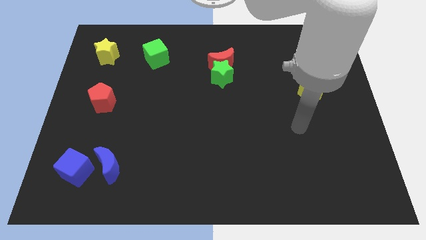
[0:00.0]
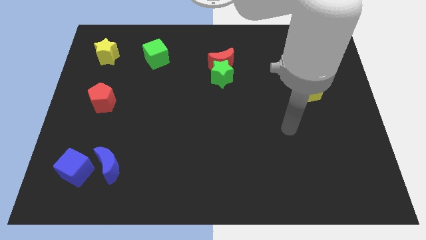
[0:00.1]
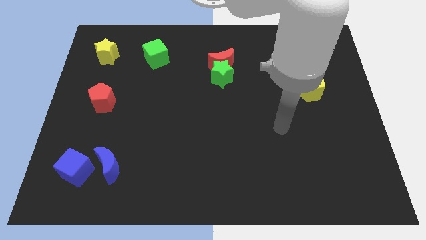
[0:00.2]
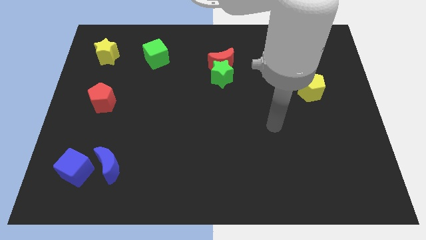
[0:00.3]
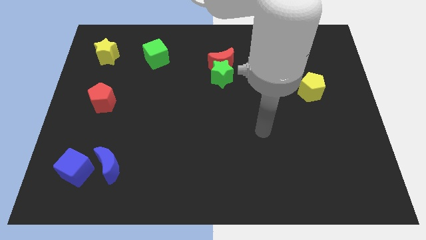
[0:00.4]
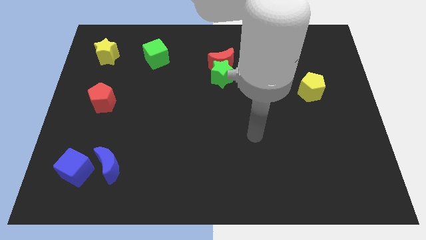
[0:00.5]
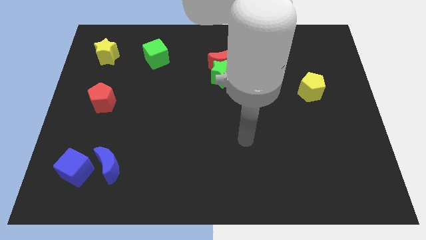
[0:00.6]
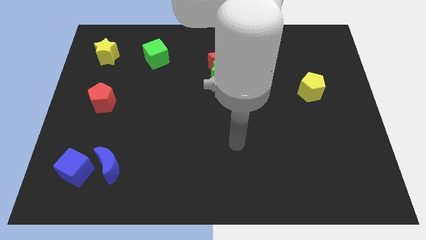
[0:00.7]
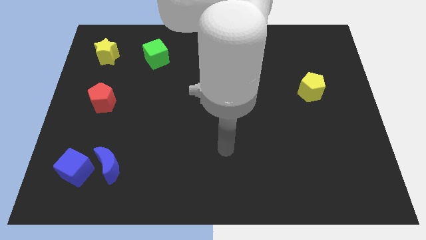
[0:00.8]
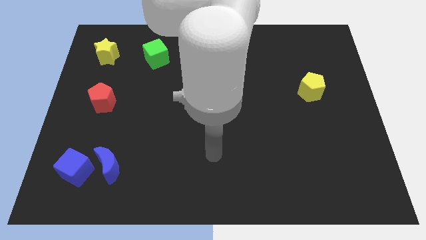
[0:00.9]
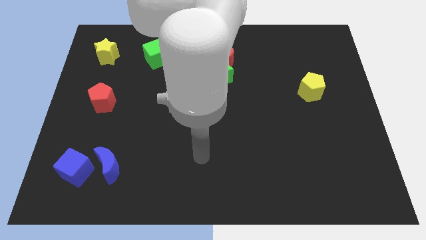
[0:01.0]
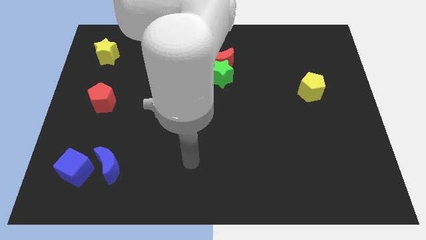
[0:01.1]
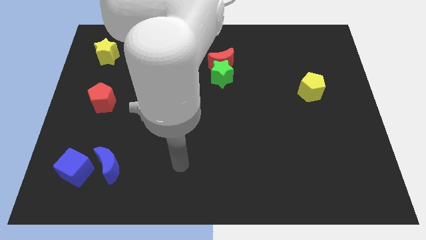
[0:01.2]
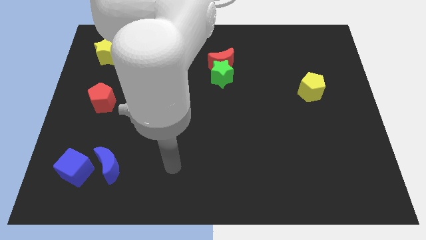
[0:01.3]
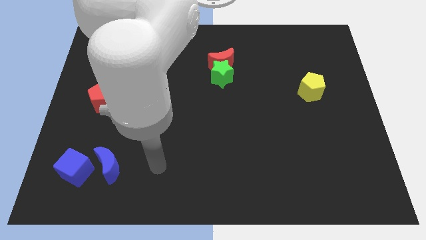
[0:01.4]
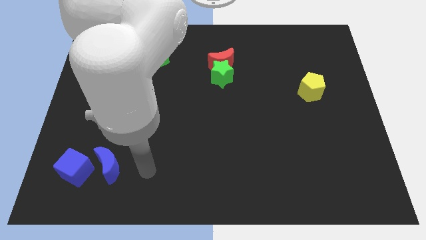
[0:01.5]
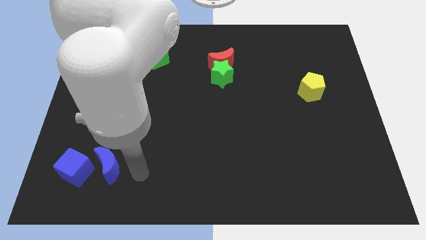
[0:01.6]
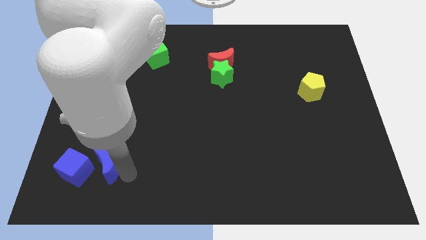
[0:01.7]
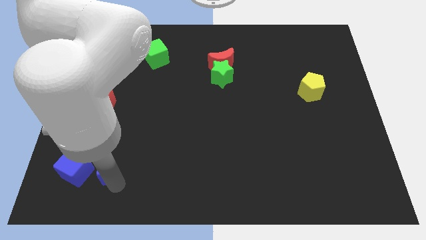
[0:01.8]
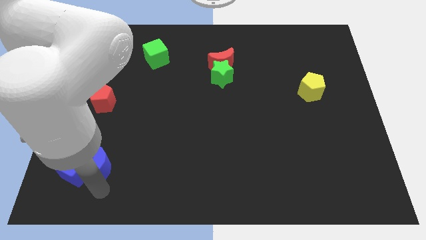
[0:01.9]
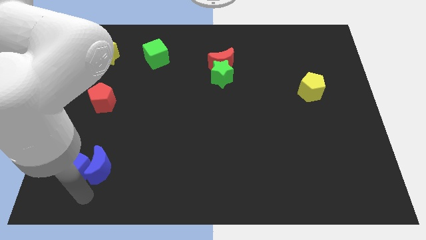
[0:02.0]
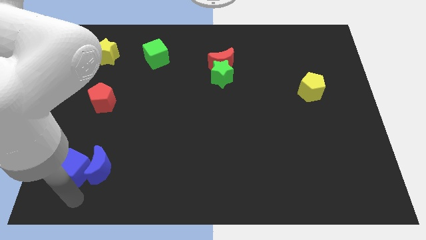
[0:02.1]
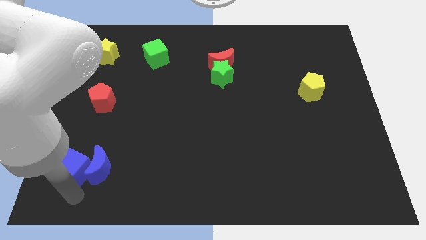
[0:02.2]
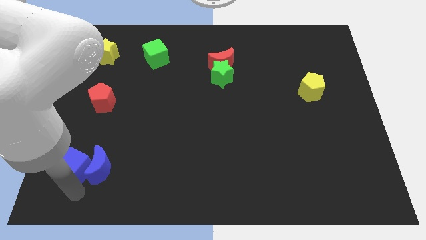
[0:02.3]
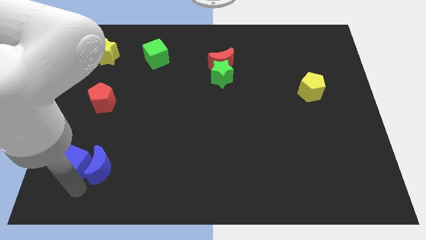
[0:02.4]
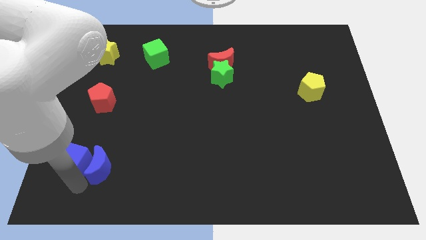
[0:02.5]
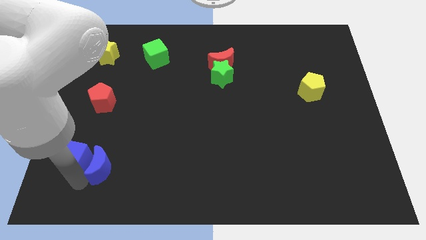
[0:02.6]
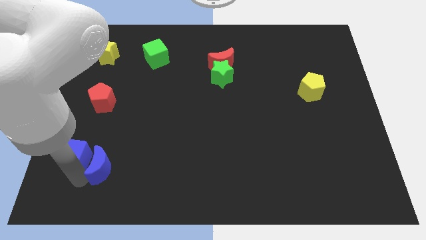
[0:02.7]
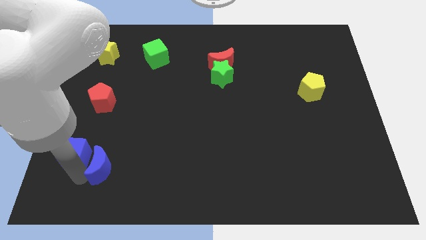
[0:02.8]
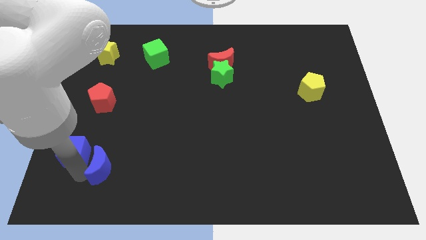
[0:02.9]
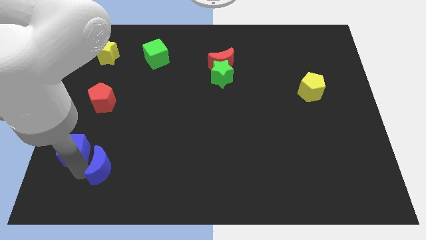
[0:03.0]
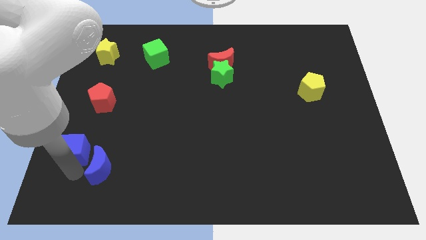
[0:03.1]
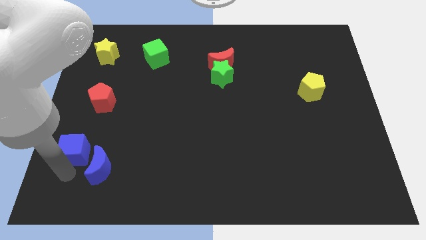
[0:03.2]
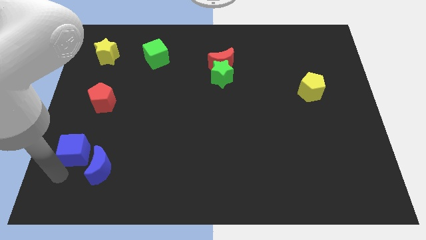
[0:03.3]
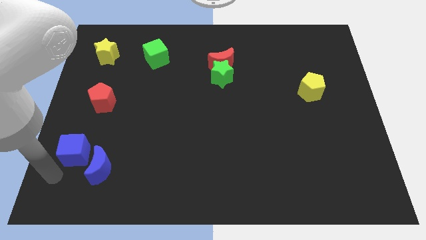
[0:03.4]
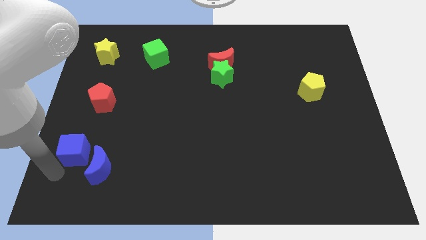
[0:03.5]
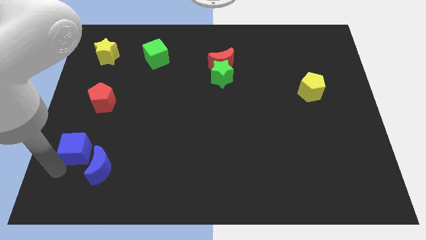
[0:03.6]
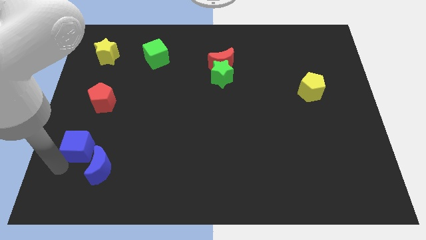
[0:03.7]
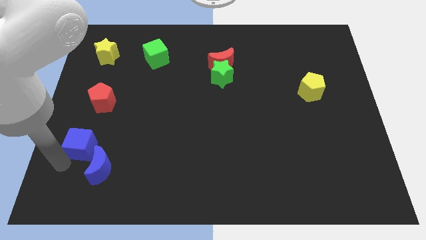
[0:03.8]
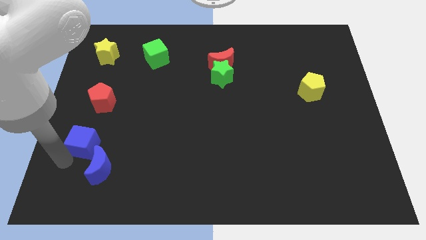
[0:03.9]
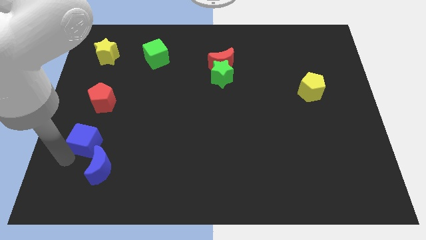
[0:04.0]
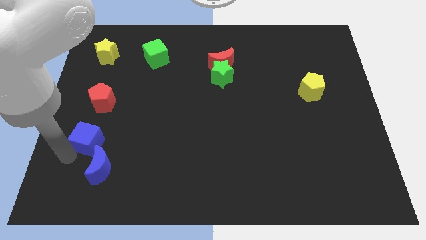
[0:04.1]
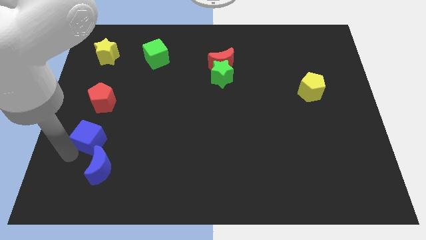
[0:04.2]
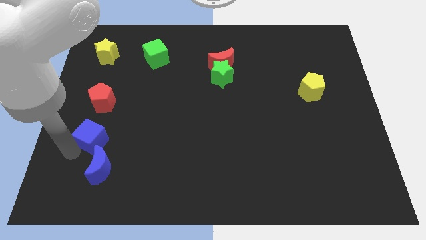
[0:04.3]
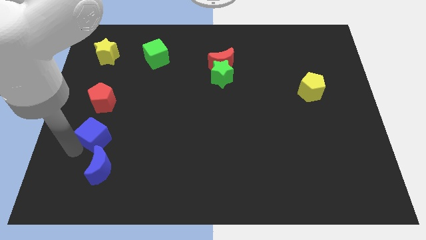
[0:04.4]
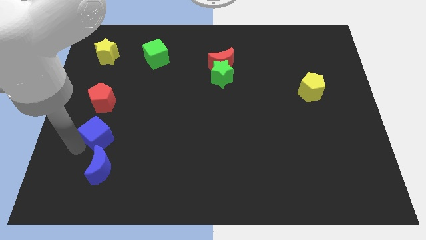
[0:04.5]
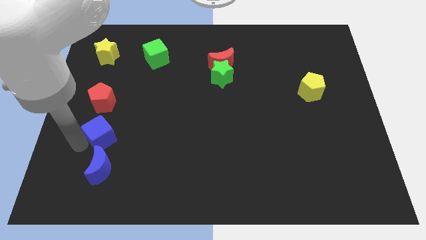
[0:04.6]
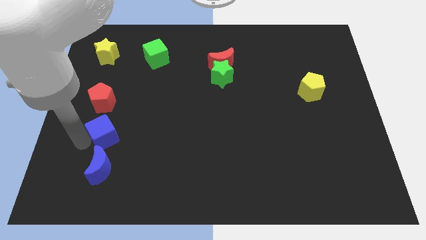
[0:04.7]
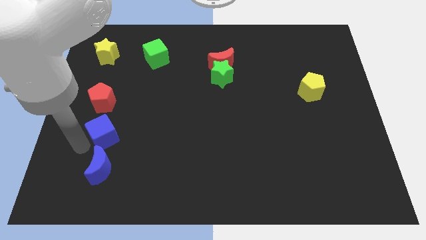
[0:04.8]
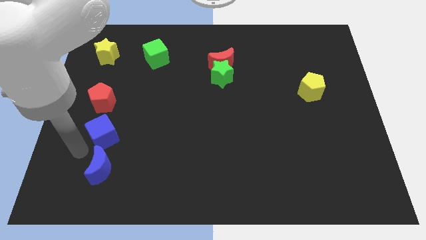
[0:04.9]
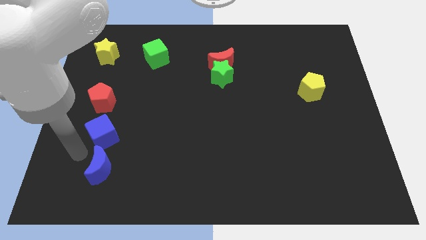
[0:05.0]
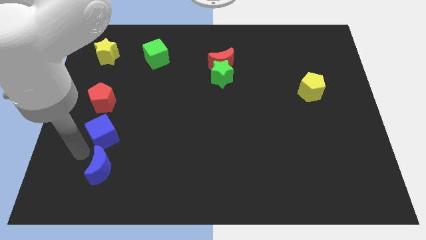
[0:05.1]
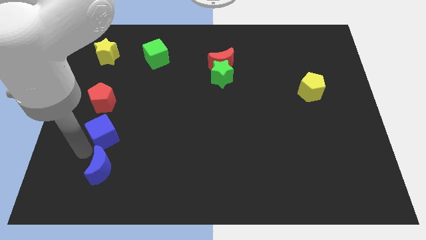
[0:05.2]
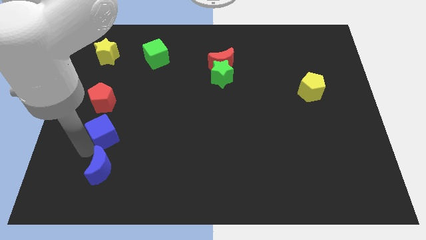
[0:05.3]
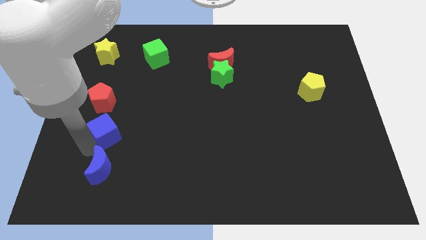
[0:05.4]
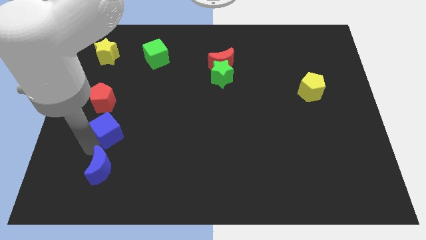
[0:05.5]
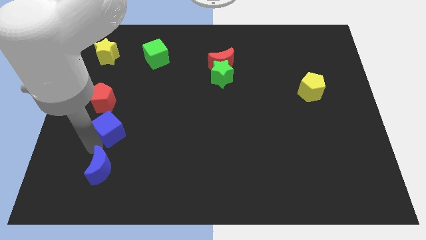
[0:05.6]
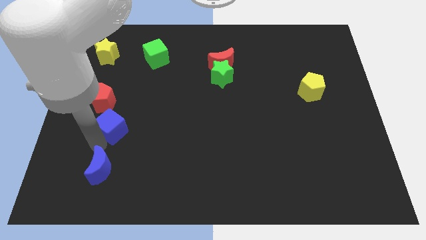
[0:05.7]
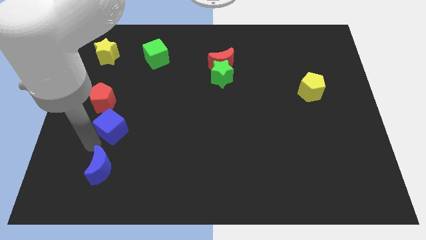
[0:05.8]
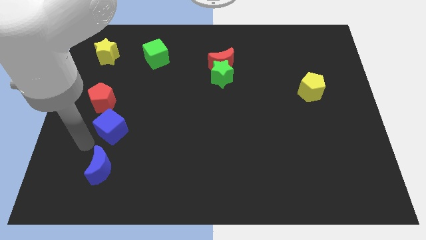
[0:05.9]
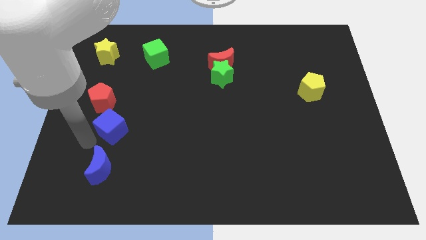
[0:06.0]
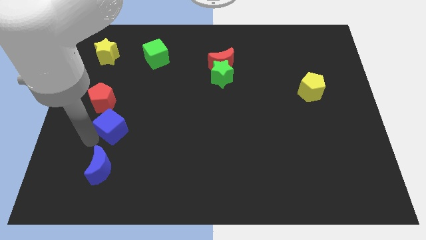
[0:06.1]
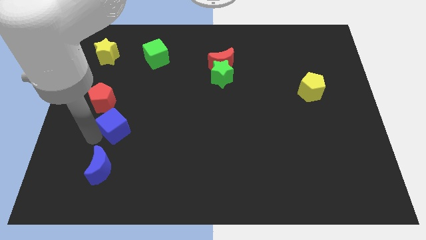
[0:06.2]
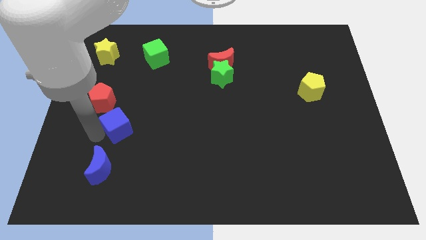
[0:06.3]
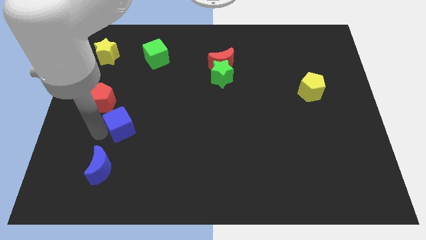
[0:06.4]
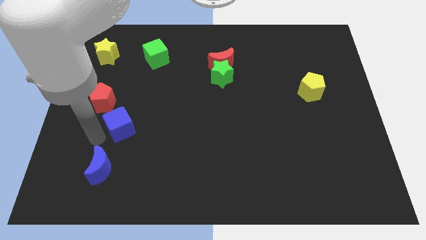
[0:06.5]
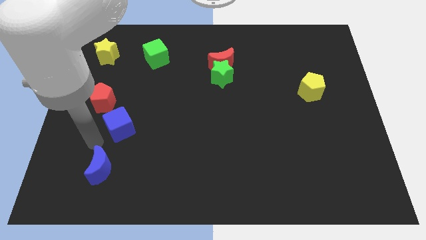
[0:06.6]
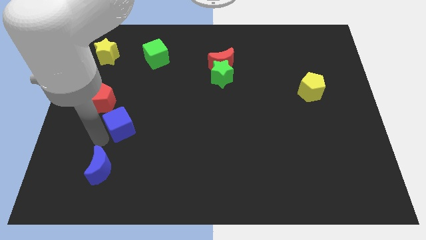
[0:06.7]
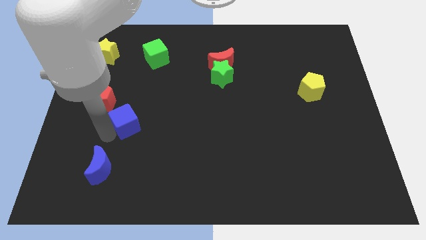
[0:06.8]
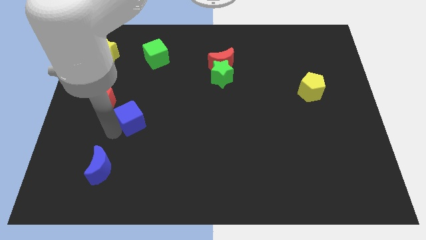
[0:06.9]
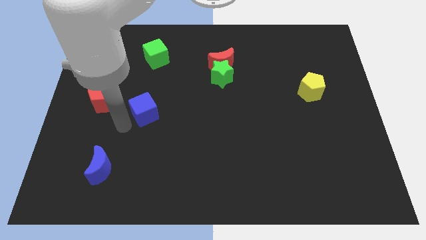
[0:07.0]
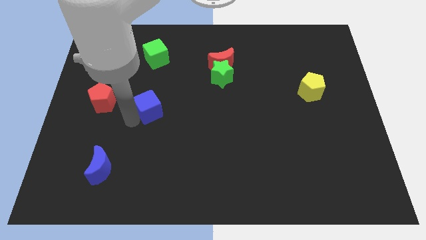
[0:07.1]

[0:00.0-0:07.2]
slide the blue cube diagonally upwards and right

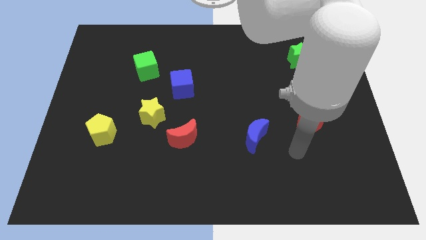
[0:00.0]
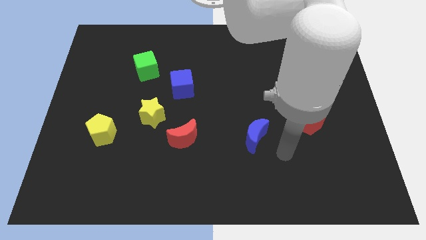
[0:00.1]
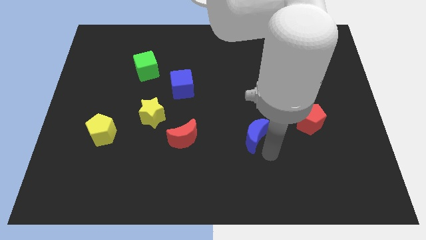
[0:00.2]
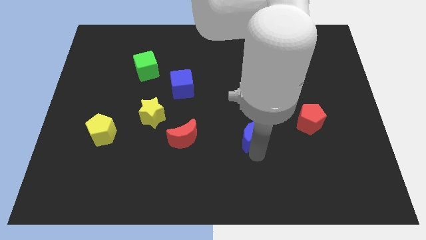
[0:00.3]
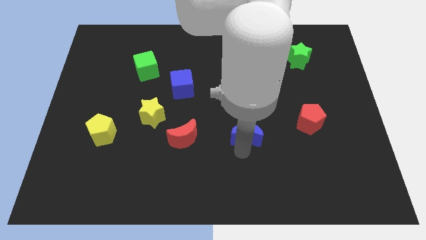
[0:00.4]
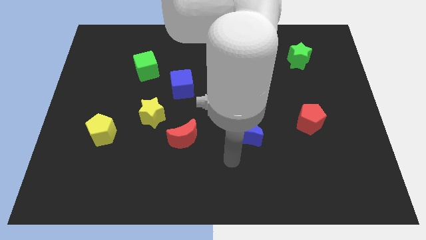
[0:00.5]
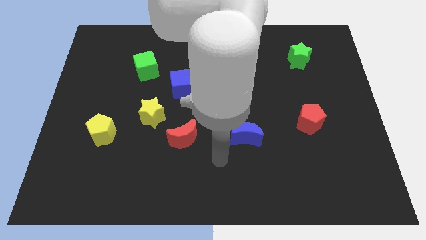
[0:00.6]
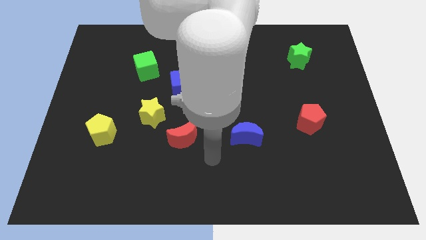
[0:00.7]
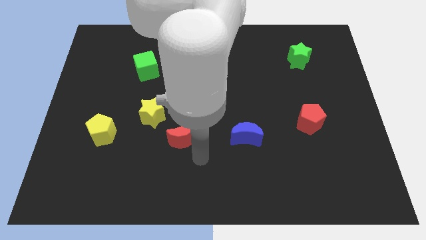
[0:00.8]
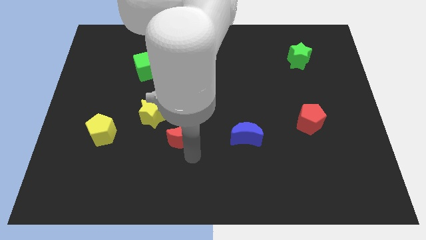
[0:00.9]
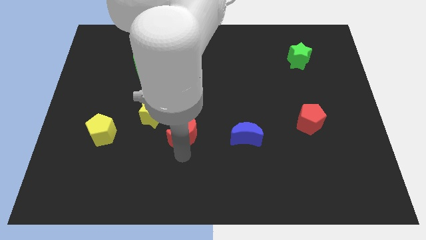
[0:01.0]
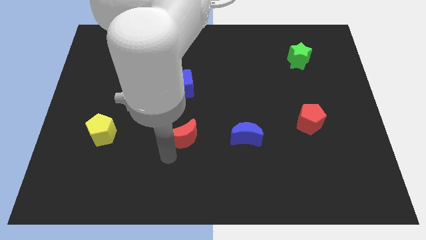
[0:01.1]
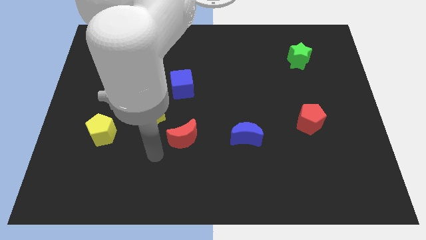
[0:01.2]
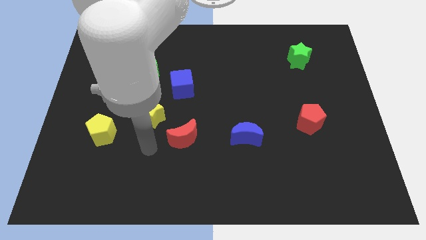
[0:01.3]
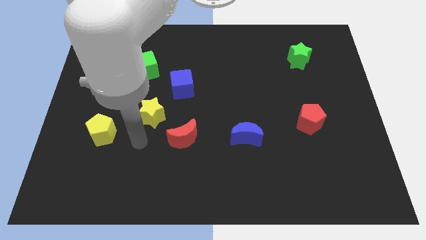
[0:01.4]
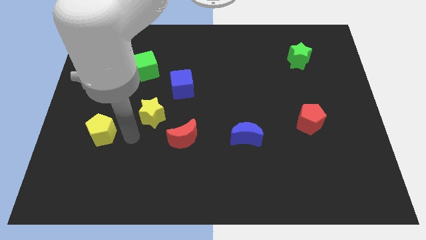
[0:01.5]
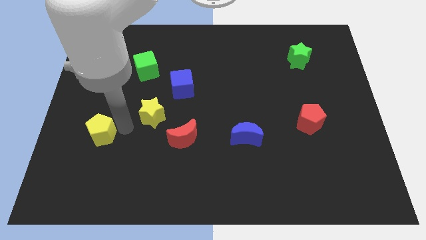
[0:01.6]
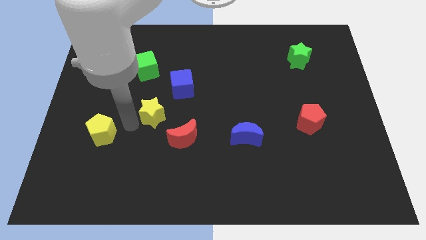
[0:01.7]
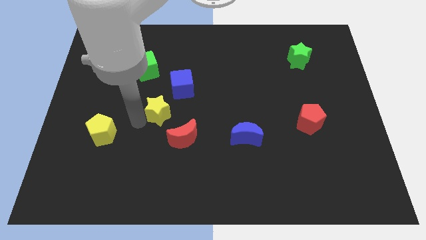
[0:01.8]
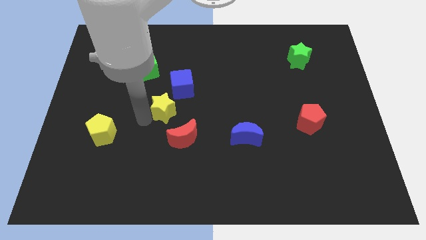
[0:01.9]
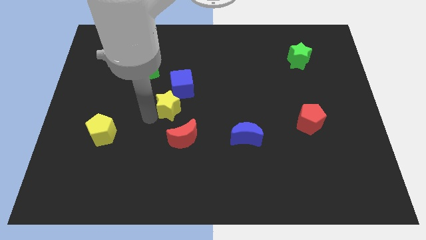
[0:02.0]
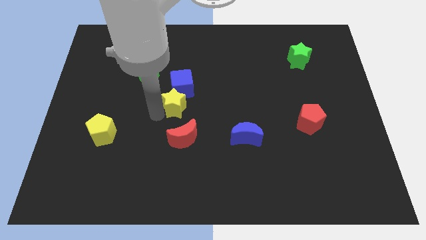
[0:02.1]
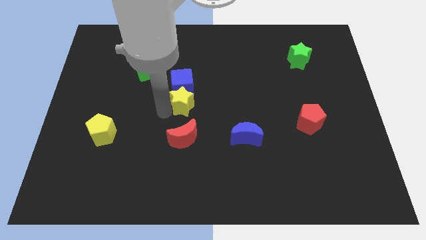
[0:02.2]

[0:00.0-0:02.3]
push the yellow star upwards and right a little
